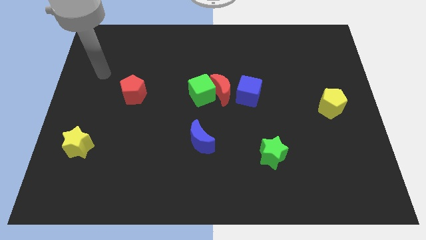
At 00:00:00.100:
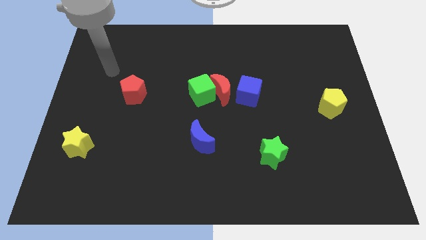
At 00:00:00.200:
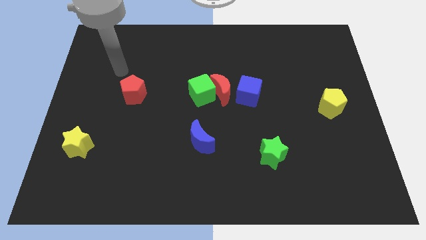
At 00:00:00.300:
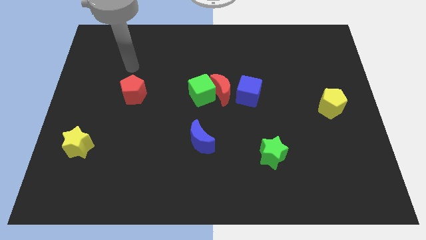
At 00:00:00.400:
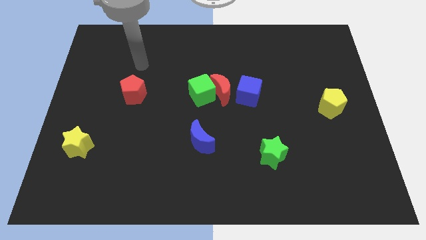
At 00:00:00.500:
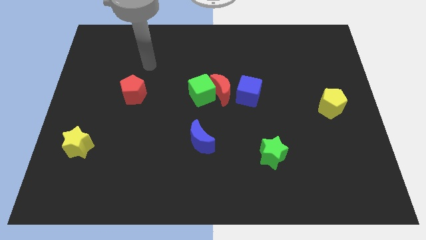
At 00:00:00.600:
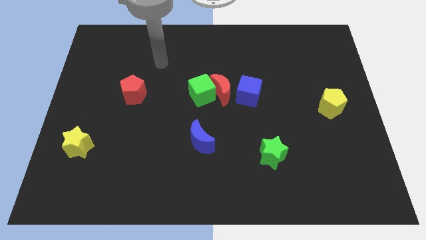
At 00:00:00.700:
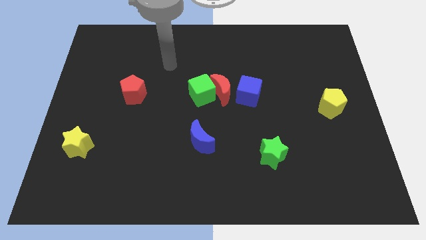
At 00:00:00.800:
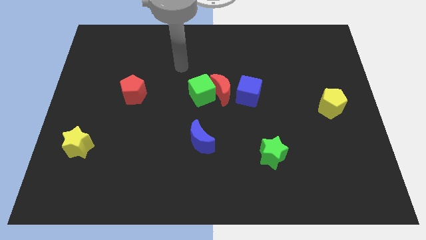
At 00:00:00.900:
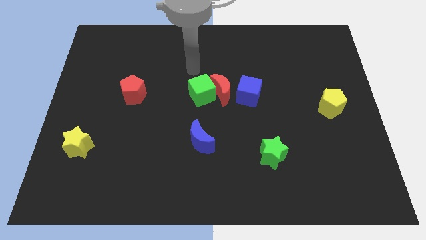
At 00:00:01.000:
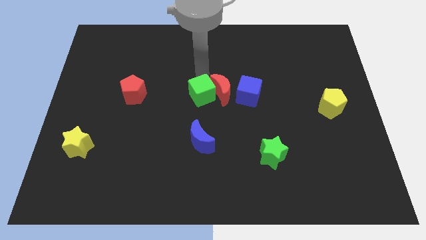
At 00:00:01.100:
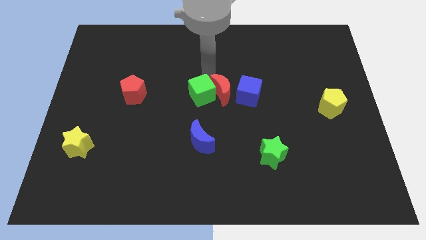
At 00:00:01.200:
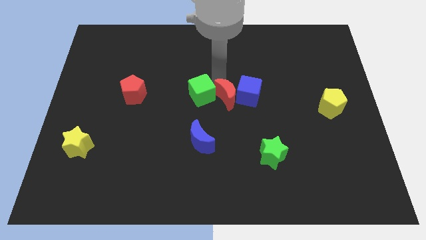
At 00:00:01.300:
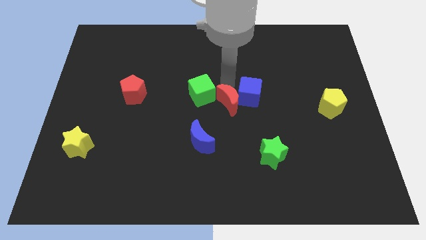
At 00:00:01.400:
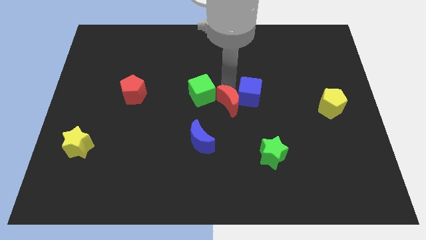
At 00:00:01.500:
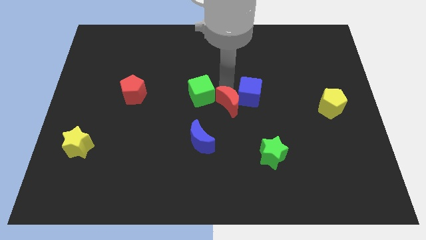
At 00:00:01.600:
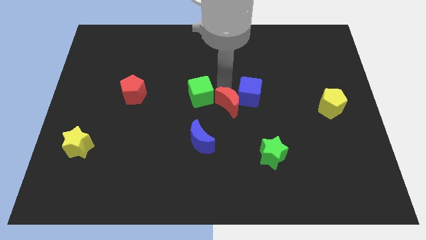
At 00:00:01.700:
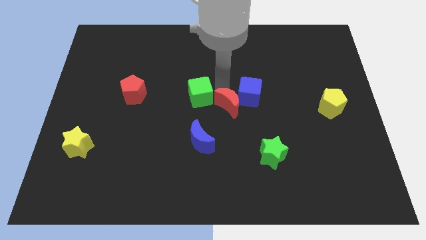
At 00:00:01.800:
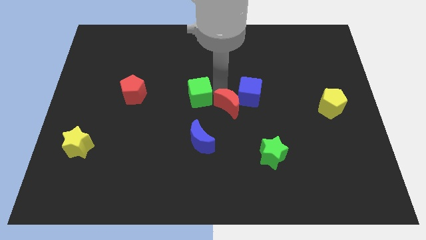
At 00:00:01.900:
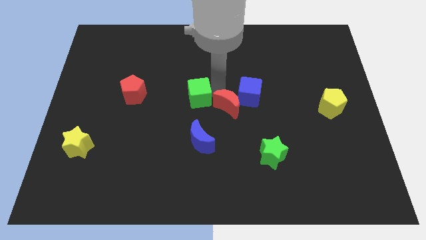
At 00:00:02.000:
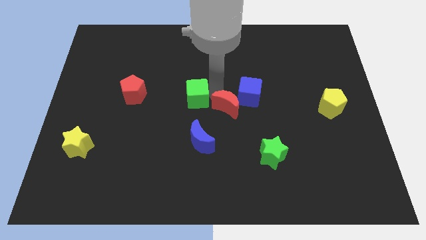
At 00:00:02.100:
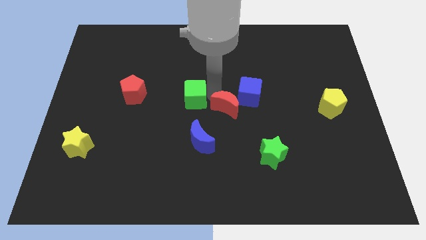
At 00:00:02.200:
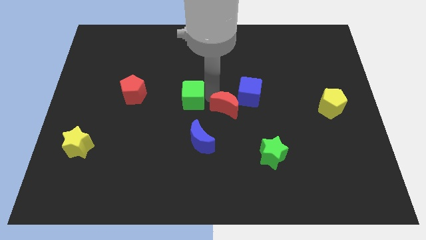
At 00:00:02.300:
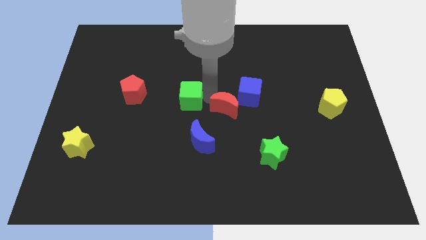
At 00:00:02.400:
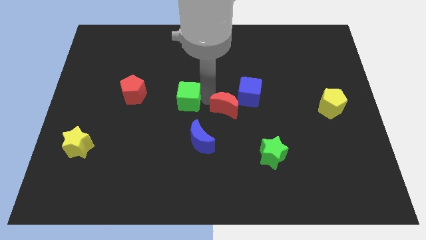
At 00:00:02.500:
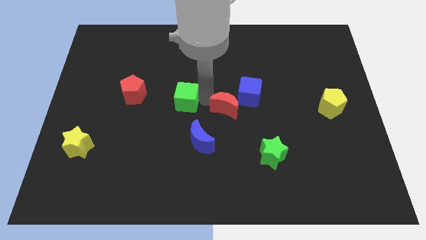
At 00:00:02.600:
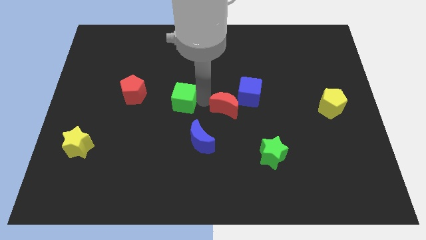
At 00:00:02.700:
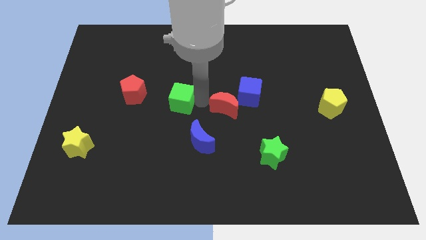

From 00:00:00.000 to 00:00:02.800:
pull the green cube apart from the red moon

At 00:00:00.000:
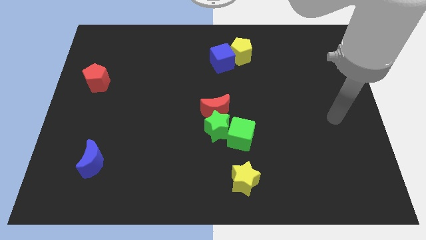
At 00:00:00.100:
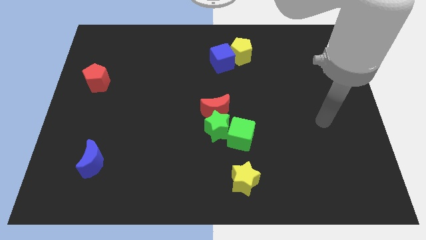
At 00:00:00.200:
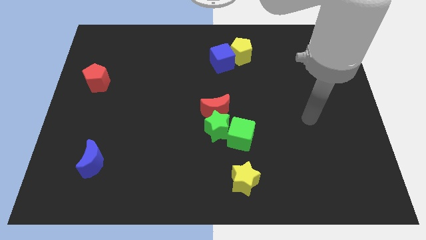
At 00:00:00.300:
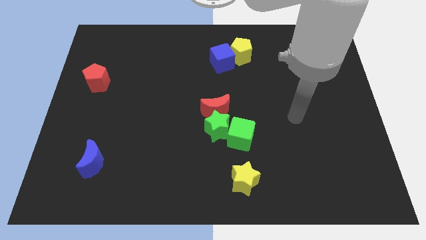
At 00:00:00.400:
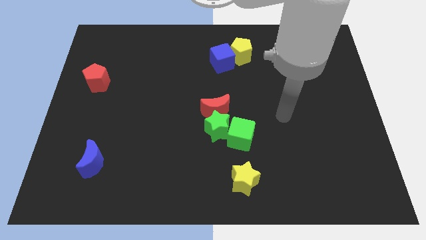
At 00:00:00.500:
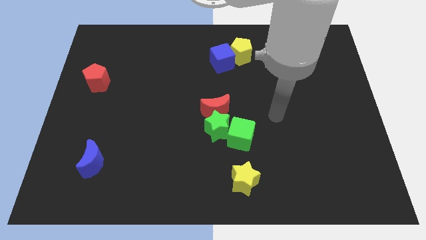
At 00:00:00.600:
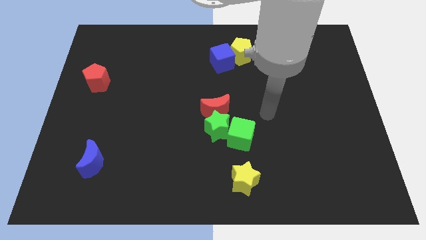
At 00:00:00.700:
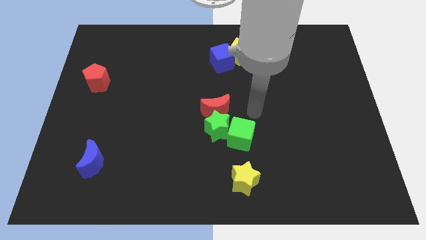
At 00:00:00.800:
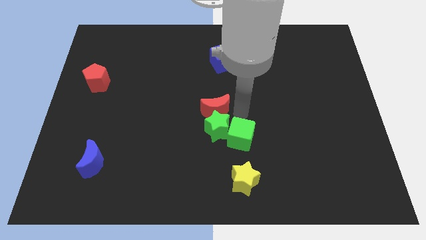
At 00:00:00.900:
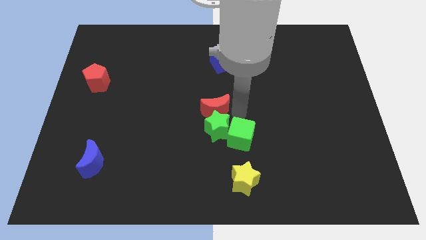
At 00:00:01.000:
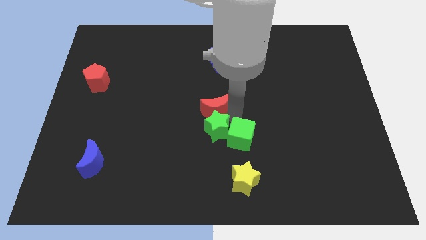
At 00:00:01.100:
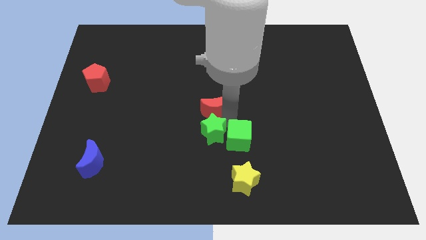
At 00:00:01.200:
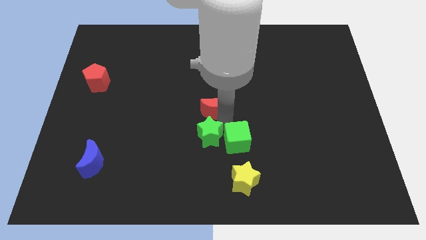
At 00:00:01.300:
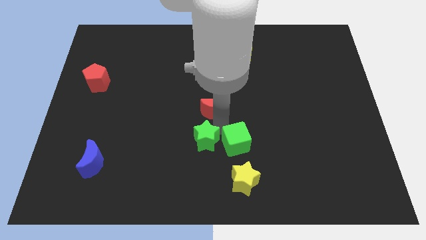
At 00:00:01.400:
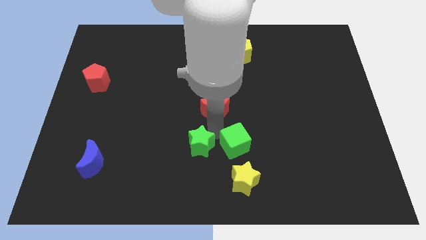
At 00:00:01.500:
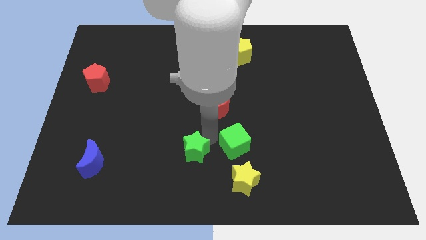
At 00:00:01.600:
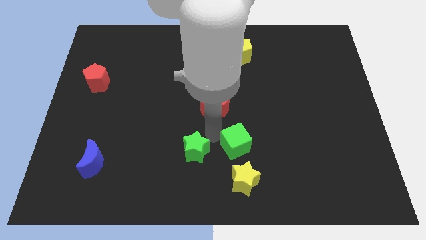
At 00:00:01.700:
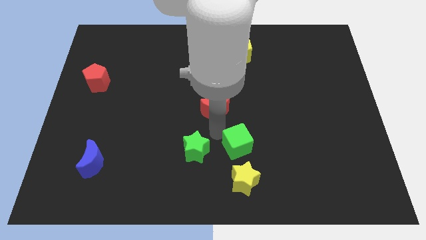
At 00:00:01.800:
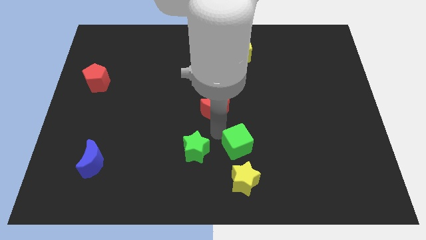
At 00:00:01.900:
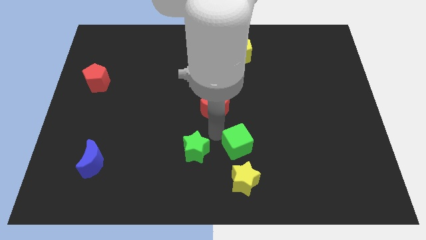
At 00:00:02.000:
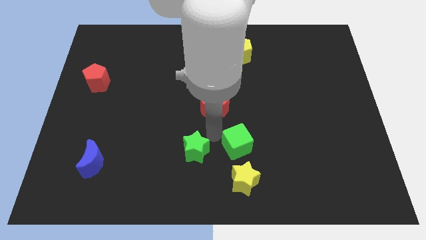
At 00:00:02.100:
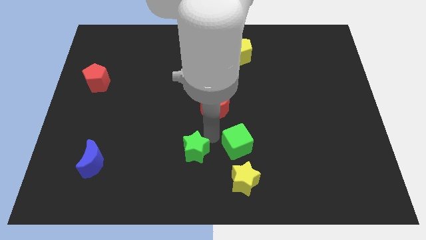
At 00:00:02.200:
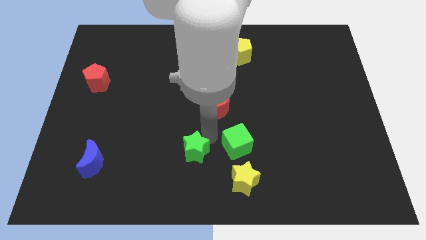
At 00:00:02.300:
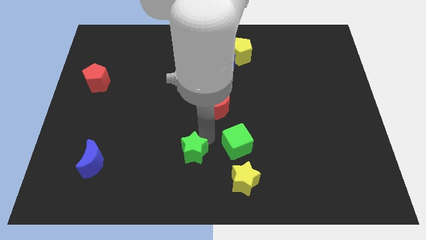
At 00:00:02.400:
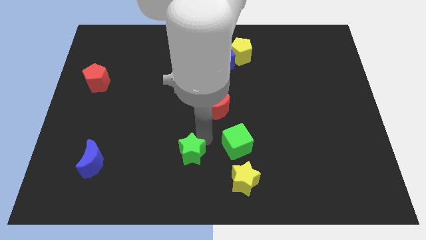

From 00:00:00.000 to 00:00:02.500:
separate the green star from the green cube and red moon

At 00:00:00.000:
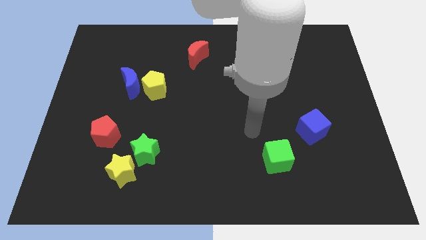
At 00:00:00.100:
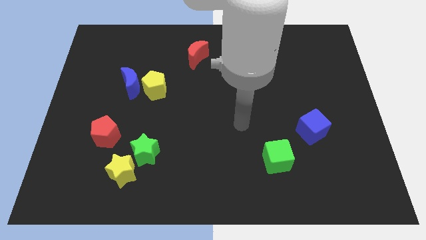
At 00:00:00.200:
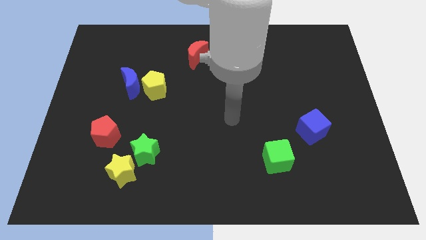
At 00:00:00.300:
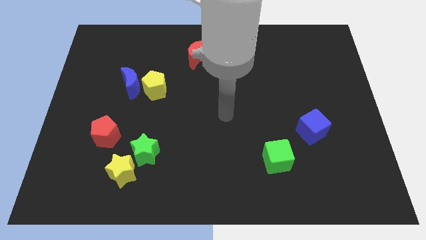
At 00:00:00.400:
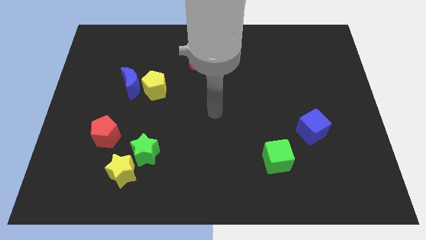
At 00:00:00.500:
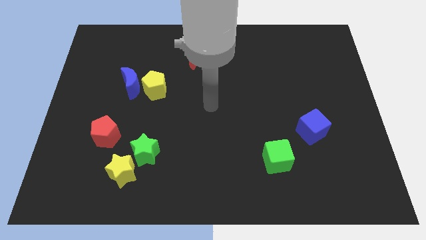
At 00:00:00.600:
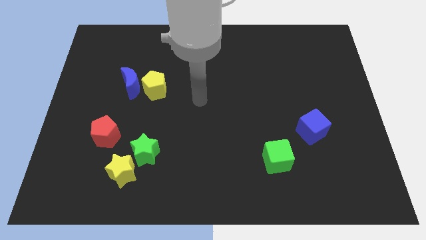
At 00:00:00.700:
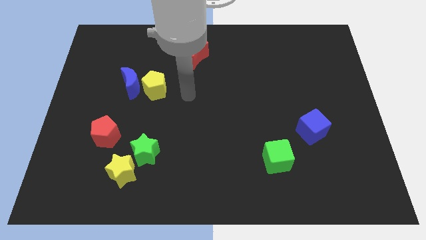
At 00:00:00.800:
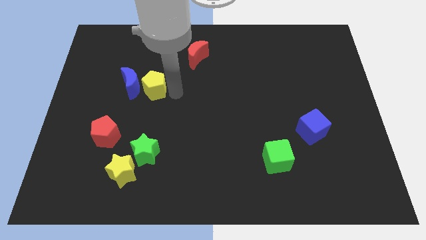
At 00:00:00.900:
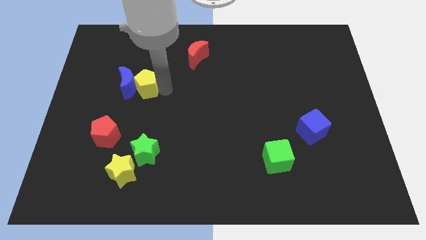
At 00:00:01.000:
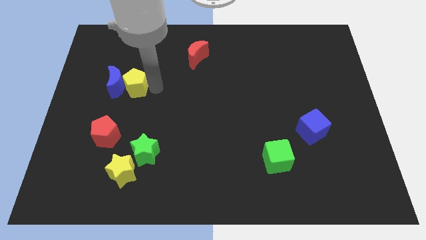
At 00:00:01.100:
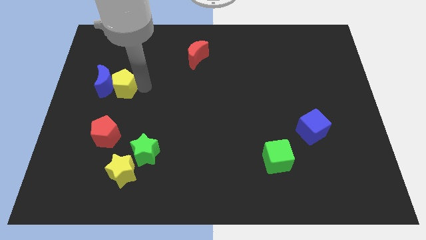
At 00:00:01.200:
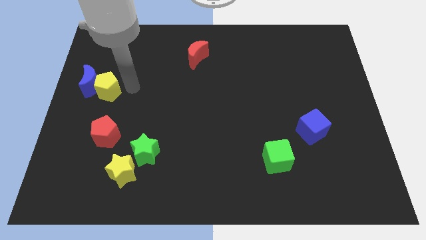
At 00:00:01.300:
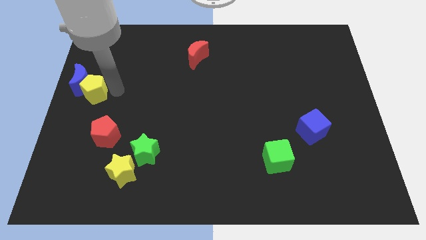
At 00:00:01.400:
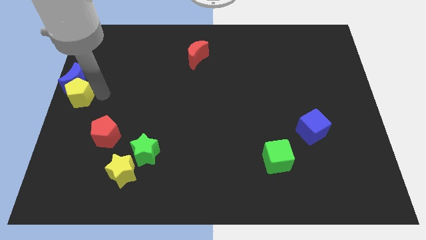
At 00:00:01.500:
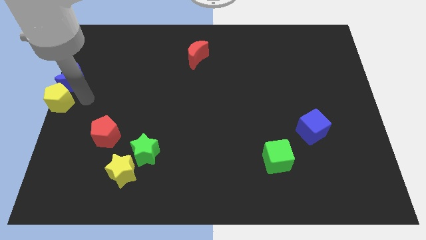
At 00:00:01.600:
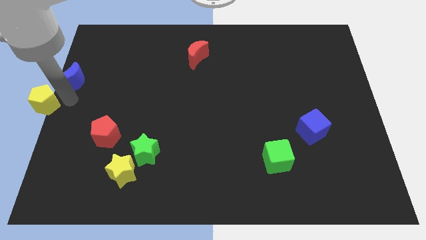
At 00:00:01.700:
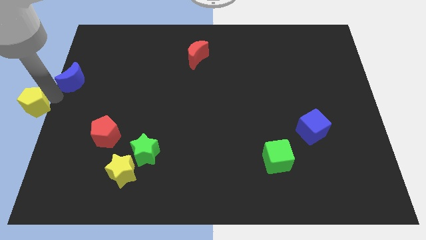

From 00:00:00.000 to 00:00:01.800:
pull the blue moon apart from the yellow pentagon

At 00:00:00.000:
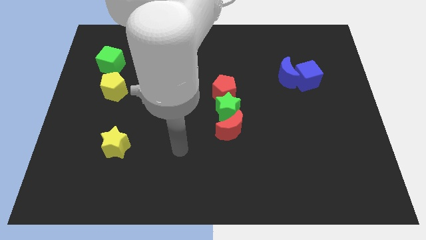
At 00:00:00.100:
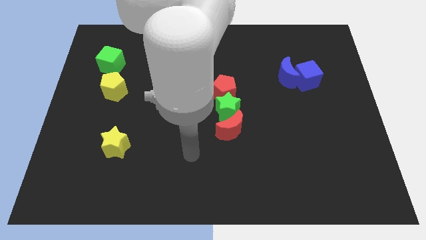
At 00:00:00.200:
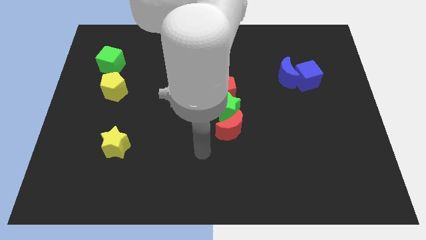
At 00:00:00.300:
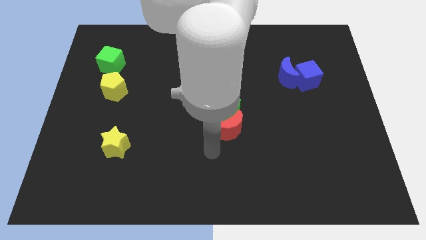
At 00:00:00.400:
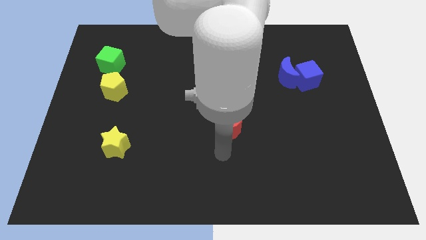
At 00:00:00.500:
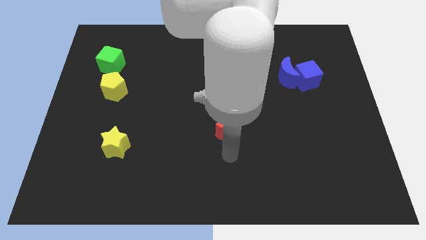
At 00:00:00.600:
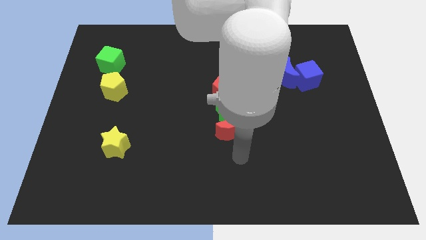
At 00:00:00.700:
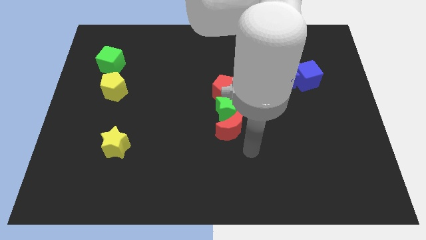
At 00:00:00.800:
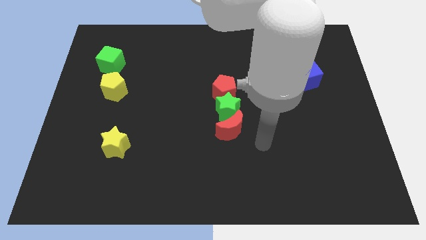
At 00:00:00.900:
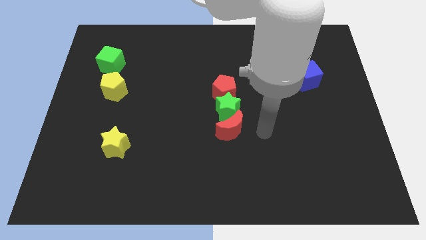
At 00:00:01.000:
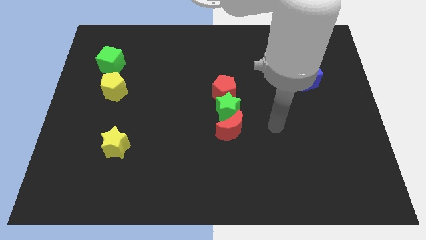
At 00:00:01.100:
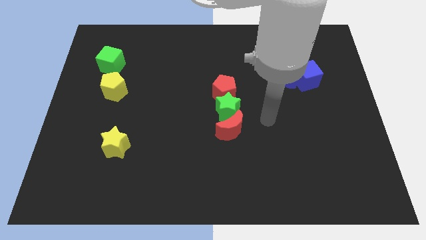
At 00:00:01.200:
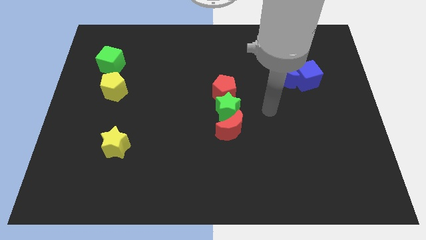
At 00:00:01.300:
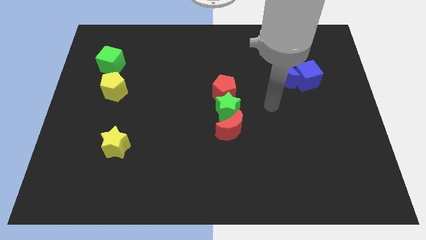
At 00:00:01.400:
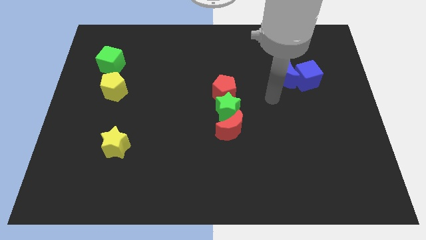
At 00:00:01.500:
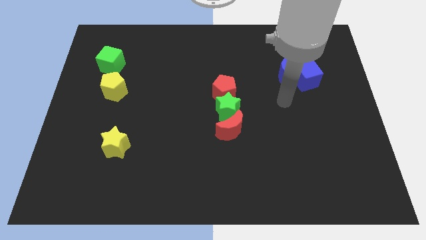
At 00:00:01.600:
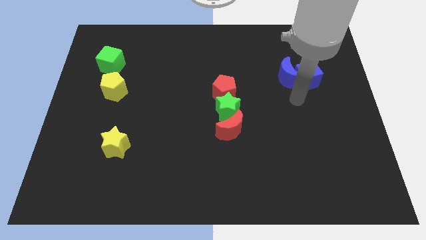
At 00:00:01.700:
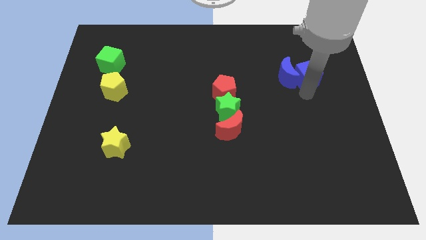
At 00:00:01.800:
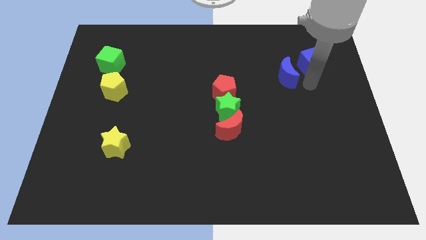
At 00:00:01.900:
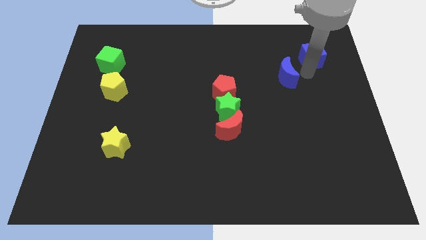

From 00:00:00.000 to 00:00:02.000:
move the blue moon away from the blue cube

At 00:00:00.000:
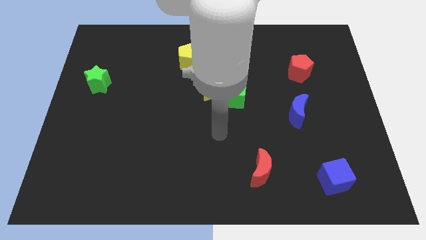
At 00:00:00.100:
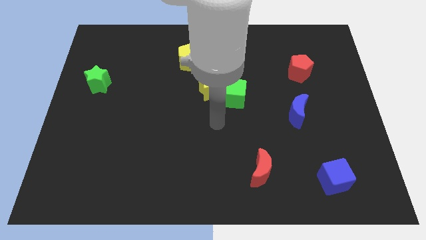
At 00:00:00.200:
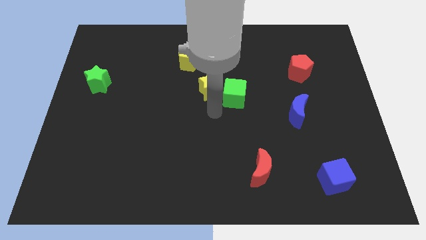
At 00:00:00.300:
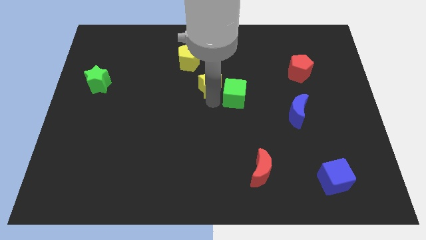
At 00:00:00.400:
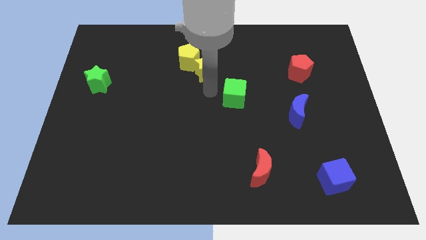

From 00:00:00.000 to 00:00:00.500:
move the green cube away from the yellow star
